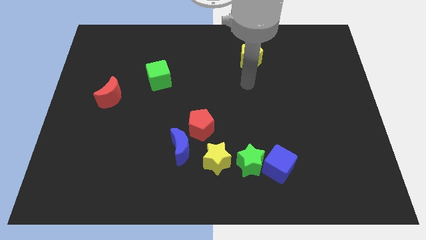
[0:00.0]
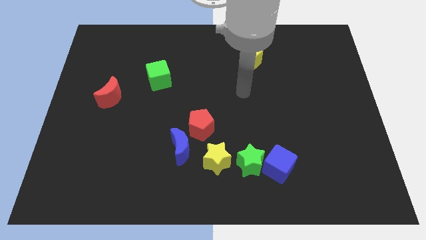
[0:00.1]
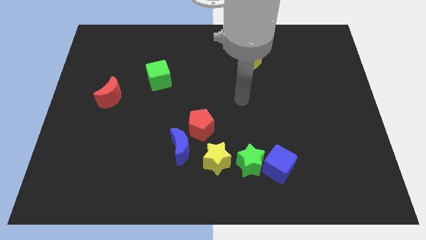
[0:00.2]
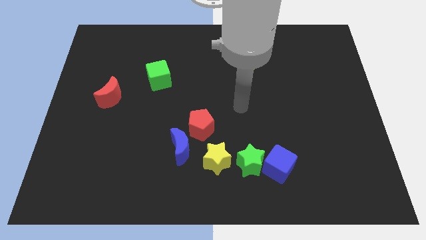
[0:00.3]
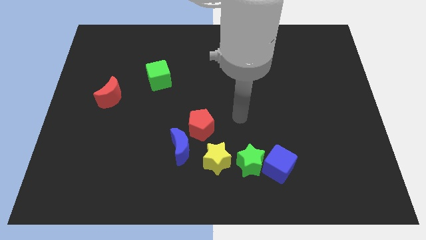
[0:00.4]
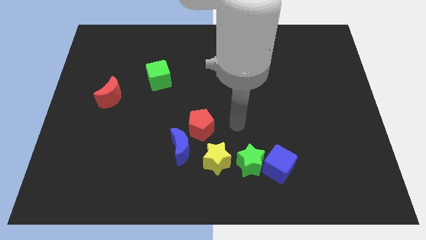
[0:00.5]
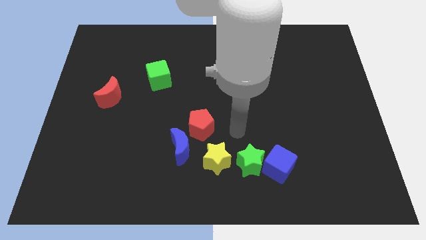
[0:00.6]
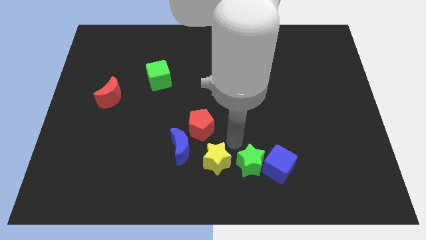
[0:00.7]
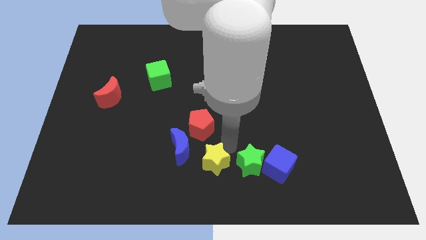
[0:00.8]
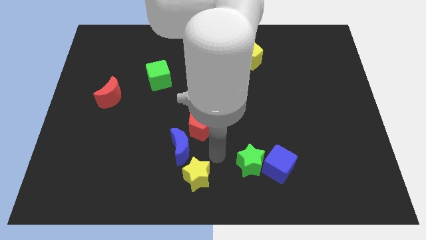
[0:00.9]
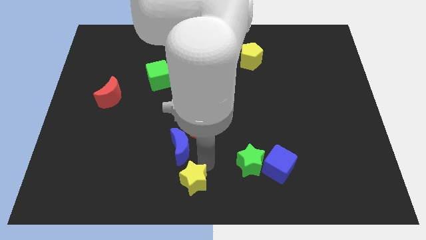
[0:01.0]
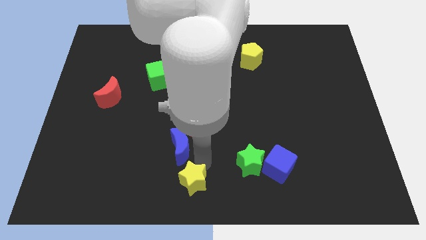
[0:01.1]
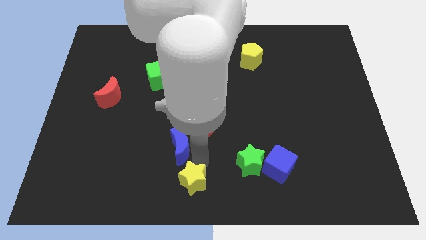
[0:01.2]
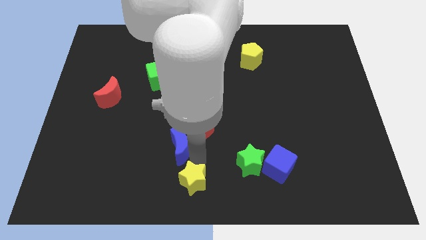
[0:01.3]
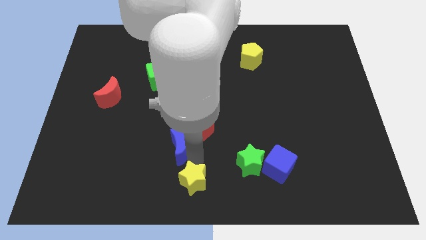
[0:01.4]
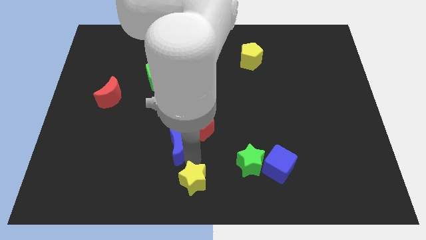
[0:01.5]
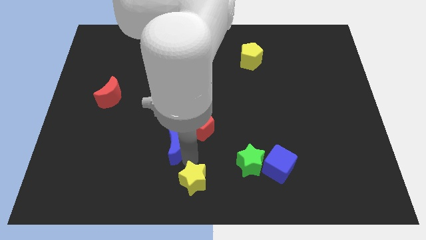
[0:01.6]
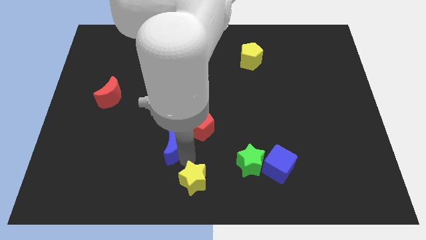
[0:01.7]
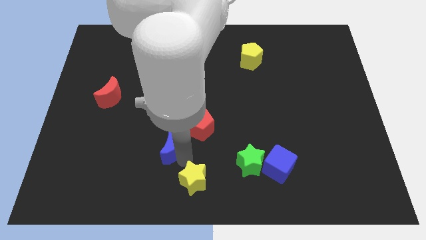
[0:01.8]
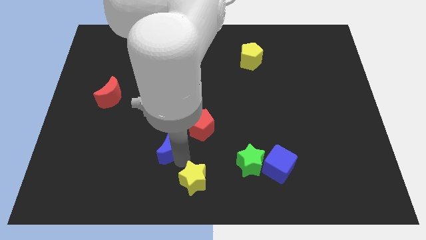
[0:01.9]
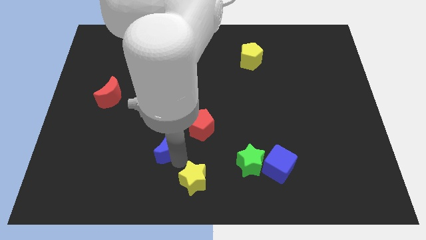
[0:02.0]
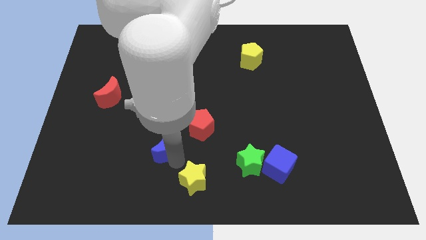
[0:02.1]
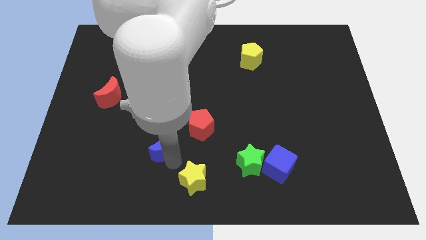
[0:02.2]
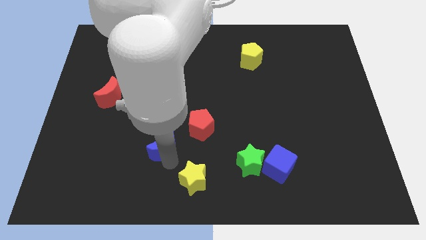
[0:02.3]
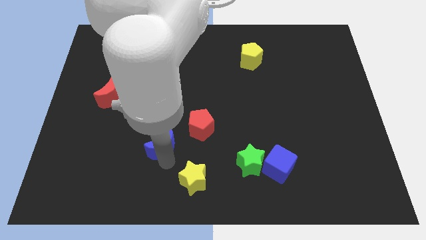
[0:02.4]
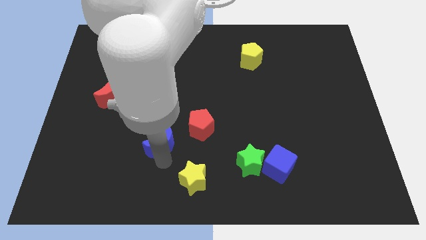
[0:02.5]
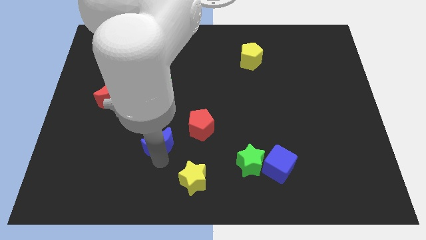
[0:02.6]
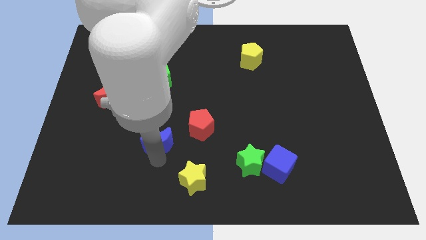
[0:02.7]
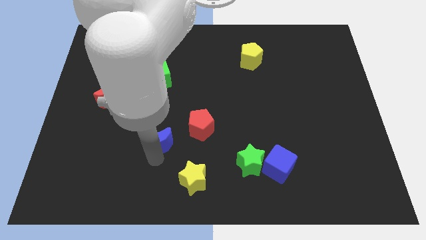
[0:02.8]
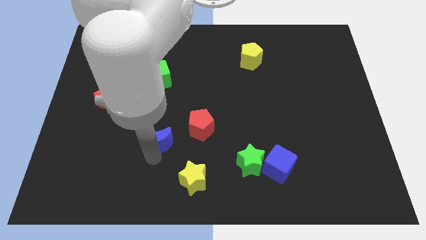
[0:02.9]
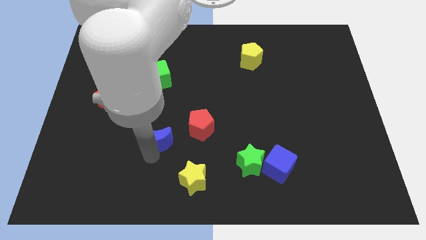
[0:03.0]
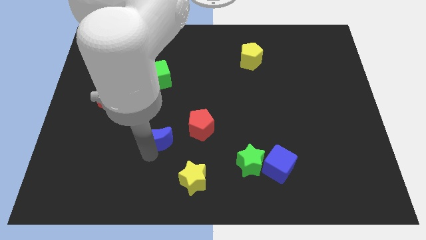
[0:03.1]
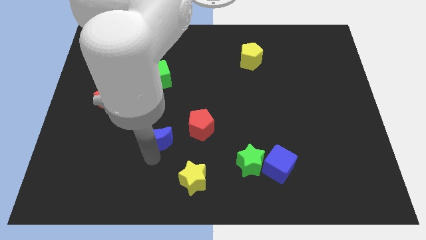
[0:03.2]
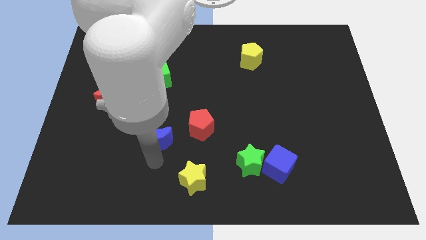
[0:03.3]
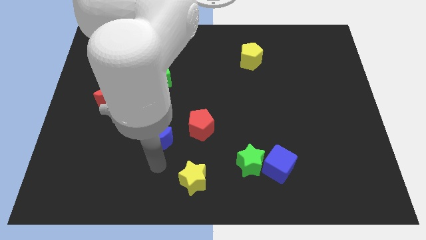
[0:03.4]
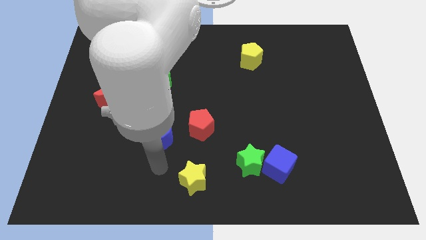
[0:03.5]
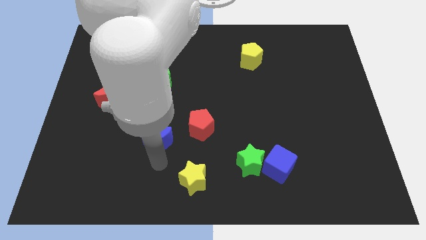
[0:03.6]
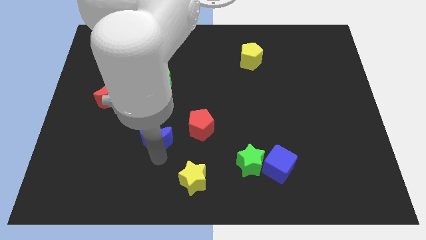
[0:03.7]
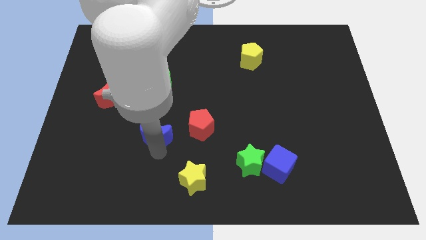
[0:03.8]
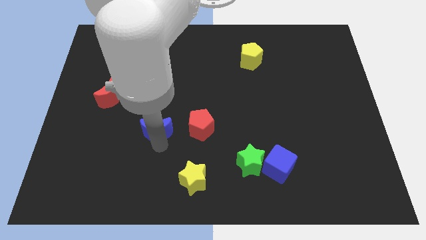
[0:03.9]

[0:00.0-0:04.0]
push the blue moon a little bit diagonally upwards and to the left

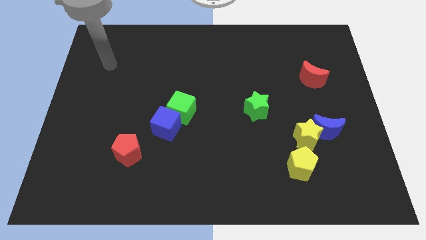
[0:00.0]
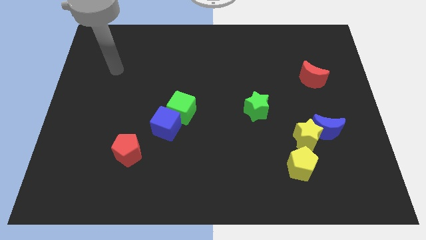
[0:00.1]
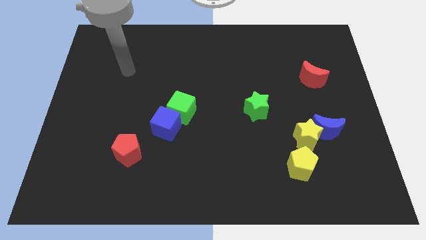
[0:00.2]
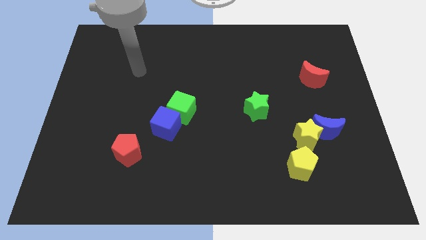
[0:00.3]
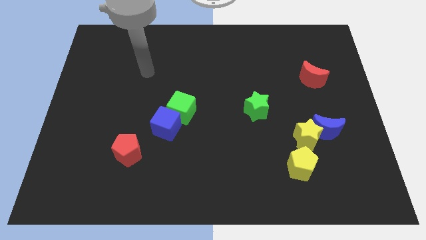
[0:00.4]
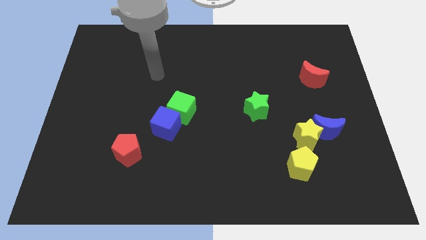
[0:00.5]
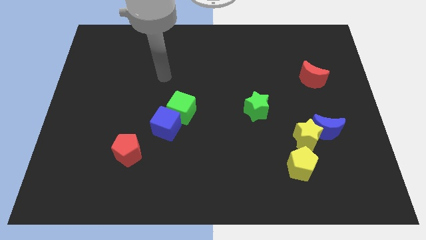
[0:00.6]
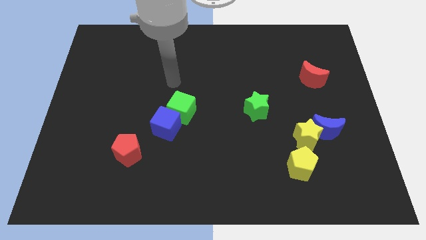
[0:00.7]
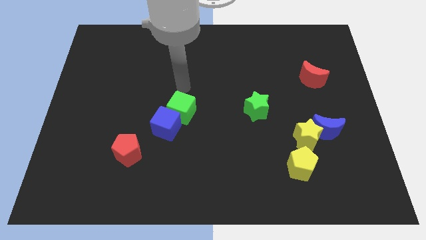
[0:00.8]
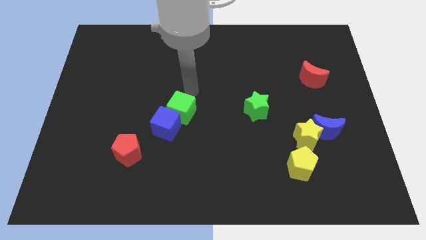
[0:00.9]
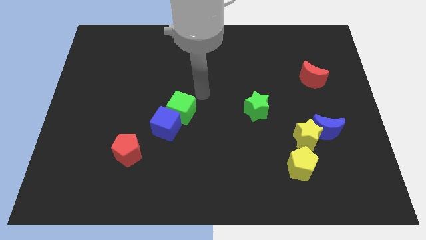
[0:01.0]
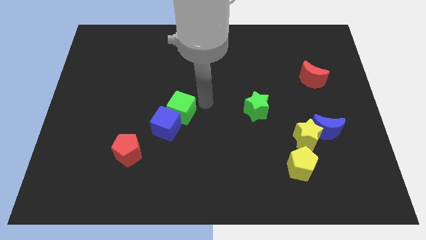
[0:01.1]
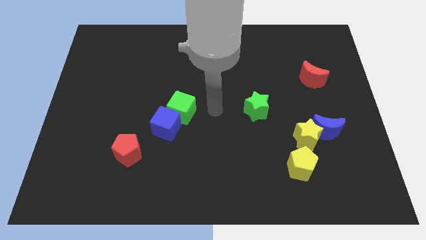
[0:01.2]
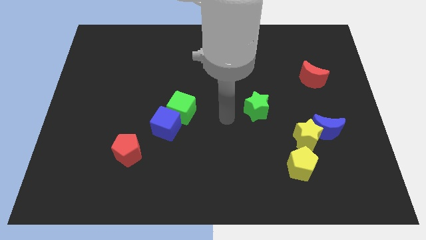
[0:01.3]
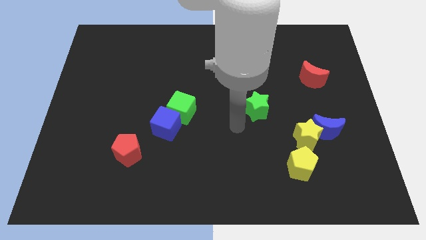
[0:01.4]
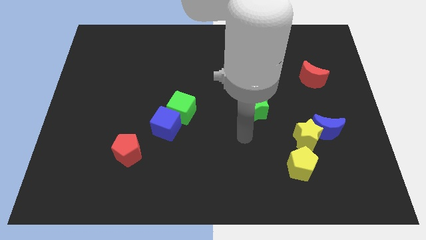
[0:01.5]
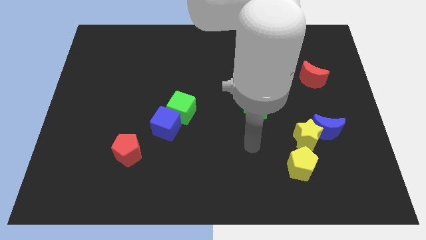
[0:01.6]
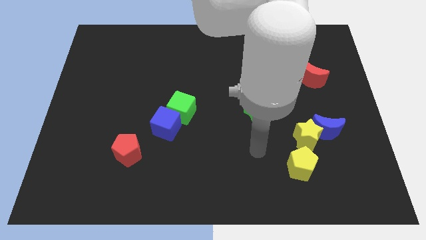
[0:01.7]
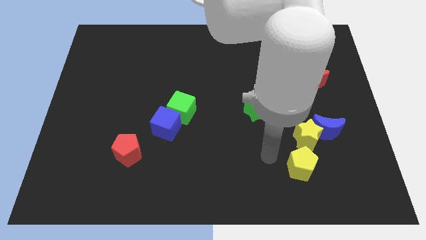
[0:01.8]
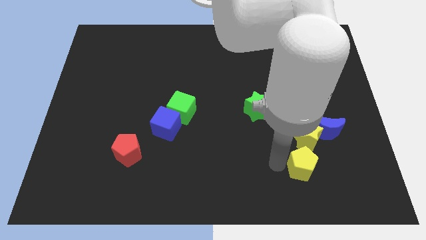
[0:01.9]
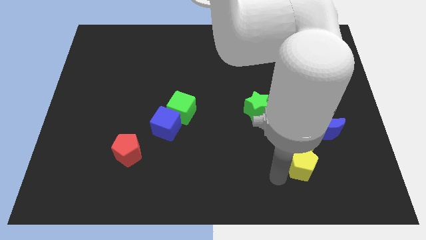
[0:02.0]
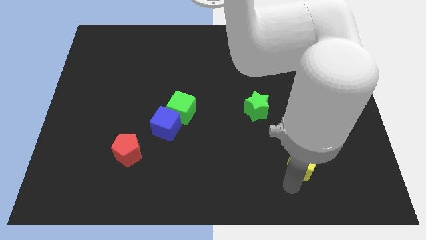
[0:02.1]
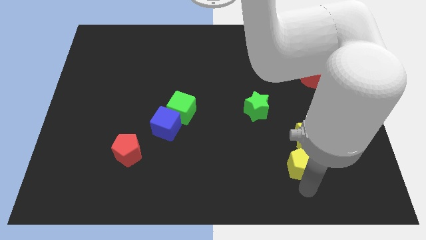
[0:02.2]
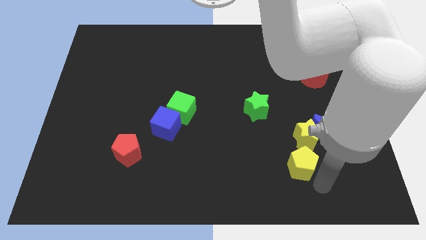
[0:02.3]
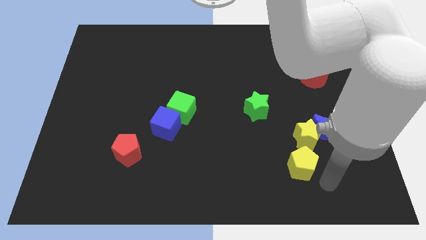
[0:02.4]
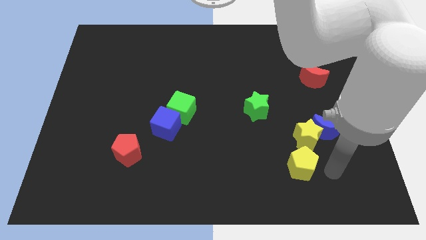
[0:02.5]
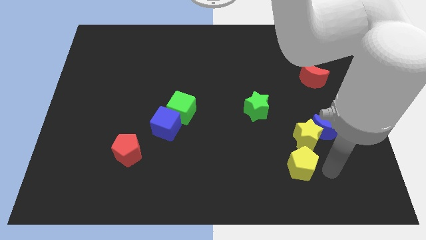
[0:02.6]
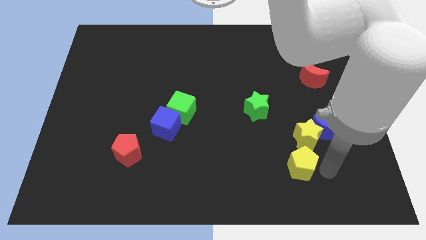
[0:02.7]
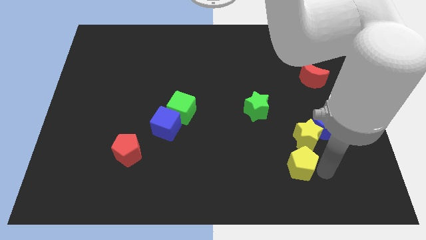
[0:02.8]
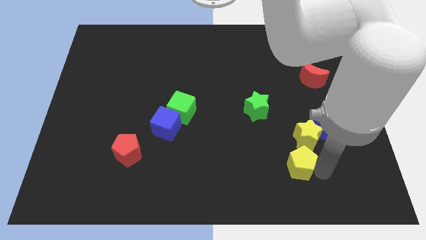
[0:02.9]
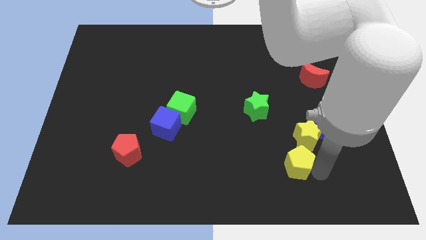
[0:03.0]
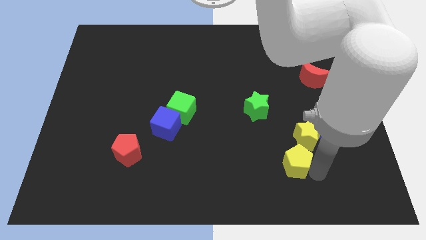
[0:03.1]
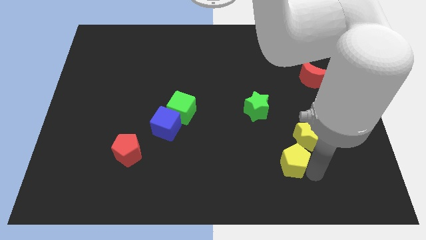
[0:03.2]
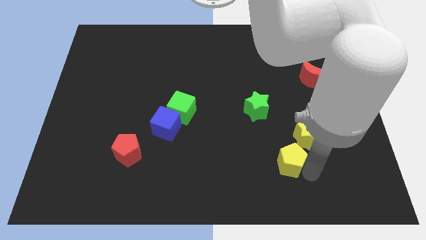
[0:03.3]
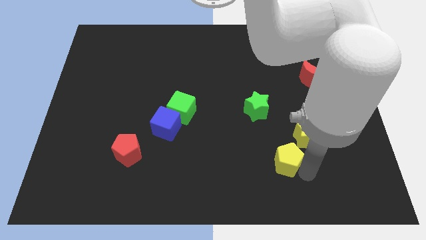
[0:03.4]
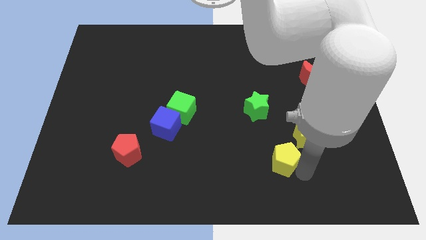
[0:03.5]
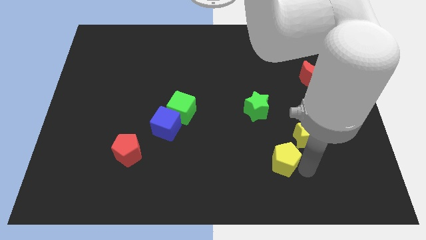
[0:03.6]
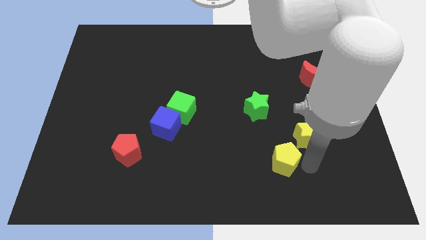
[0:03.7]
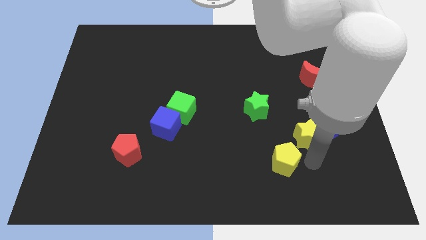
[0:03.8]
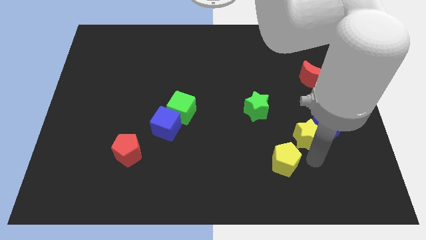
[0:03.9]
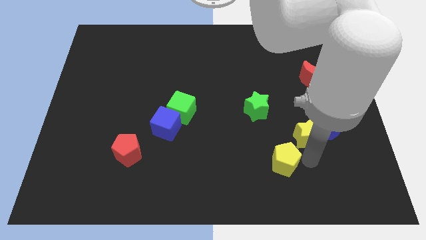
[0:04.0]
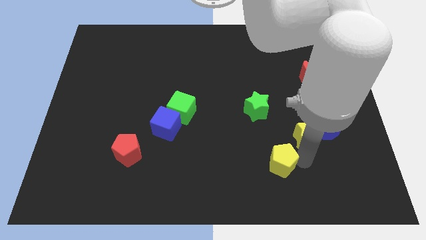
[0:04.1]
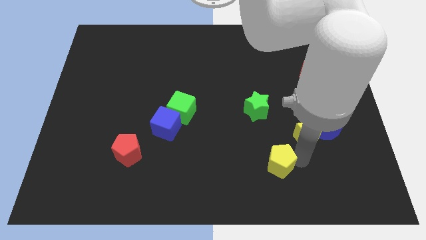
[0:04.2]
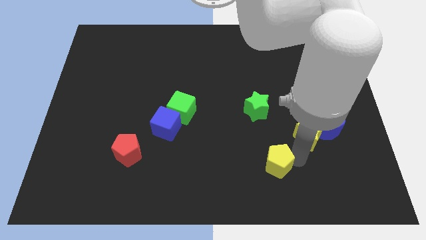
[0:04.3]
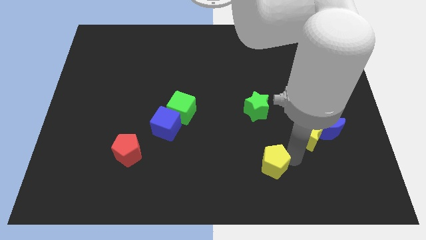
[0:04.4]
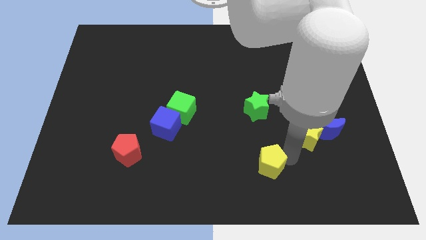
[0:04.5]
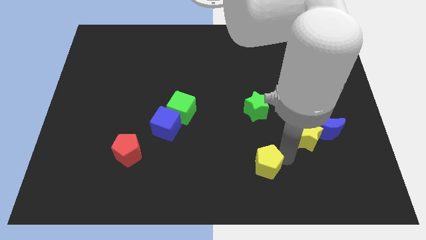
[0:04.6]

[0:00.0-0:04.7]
slightly slide the yellow pentagon to the left
